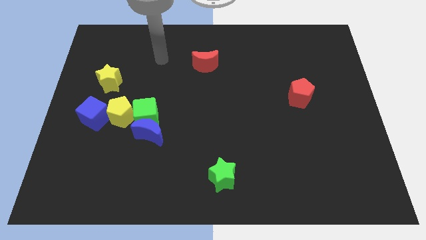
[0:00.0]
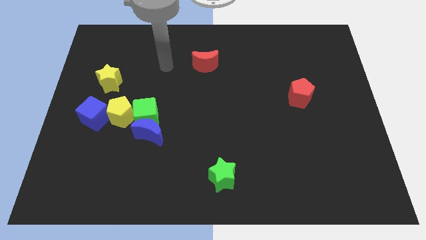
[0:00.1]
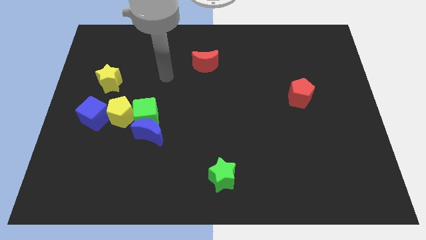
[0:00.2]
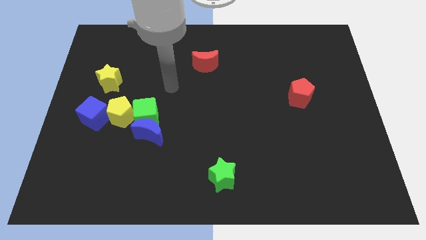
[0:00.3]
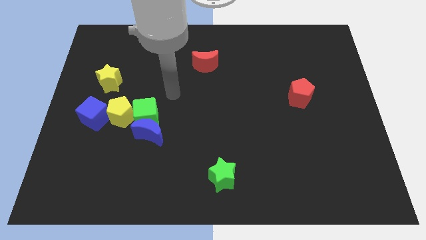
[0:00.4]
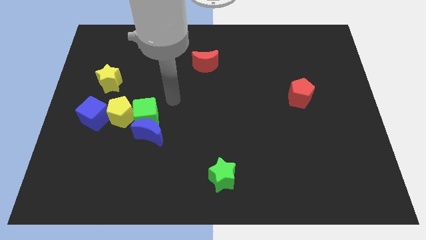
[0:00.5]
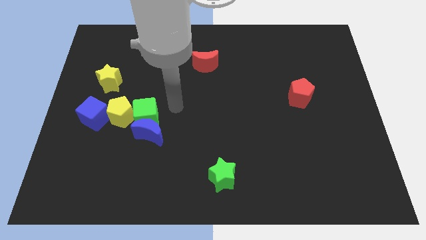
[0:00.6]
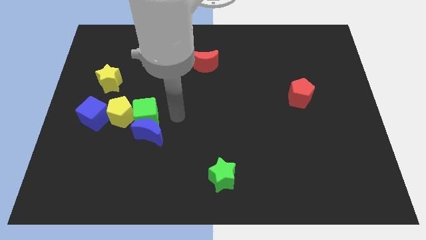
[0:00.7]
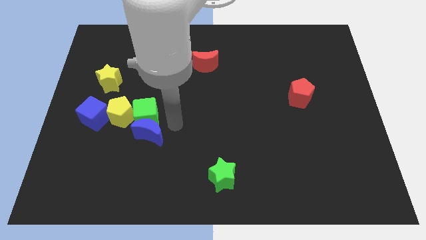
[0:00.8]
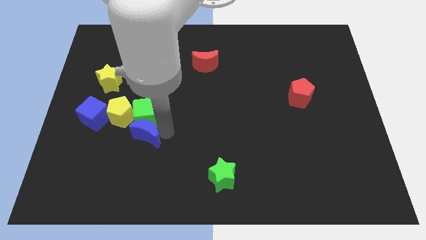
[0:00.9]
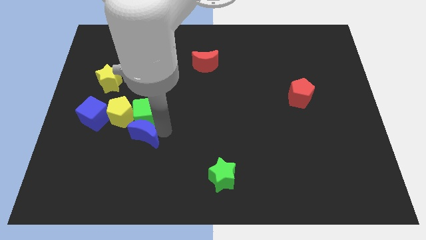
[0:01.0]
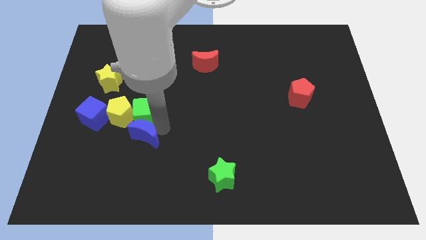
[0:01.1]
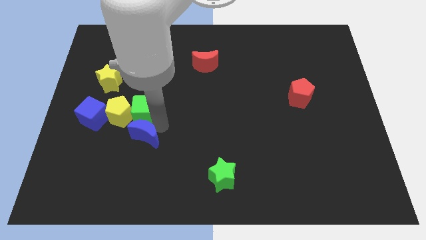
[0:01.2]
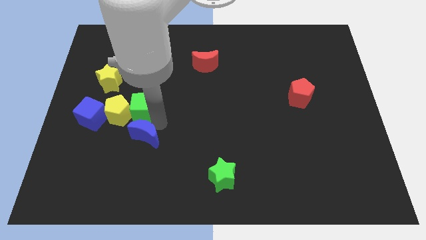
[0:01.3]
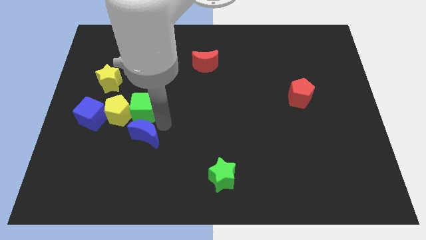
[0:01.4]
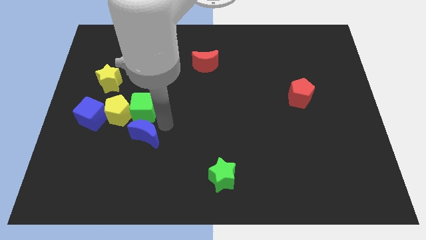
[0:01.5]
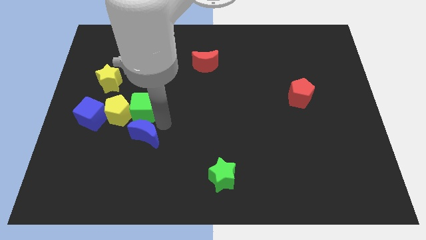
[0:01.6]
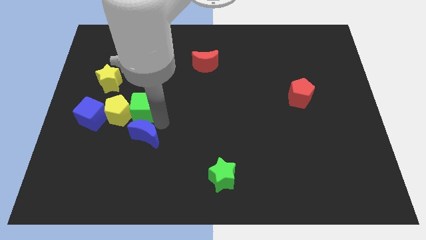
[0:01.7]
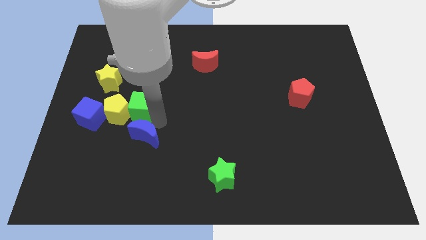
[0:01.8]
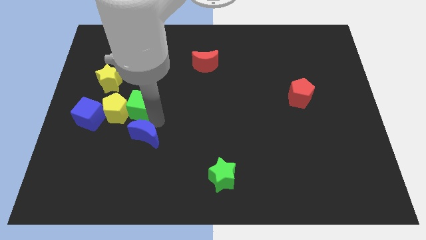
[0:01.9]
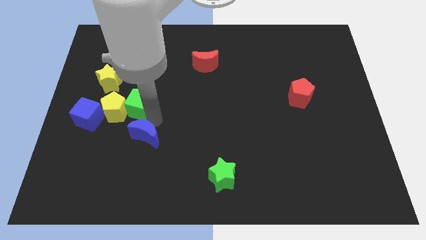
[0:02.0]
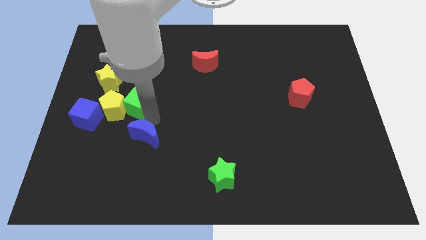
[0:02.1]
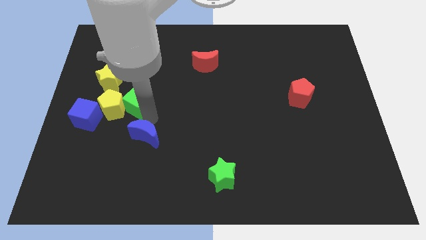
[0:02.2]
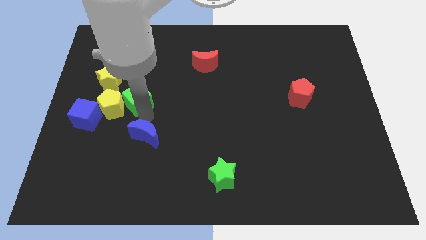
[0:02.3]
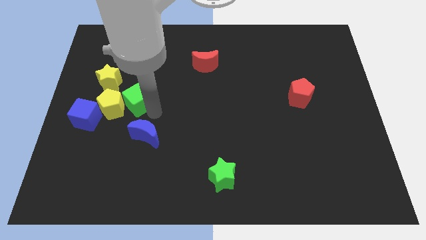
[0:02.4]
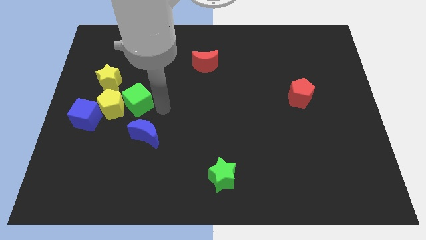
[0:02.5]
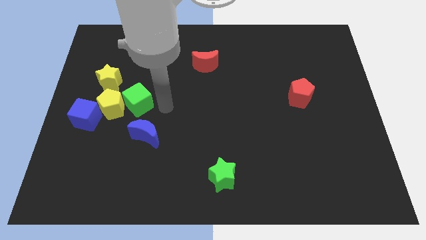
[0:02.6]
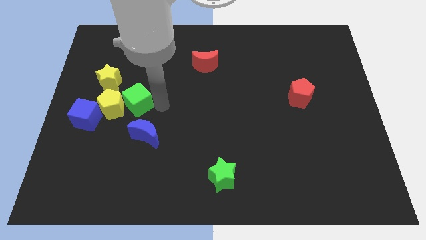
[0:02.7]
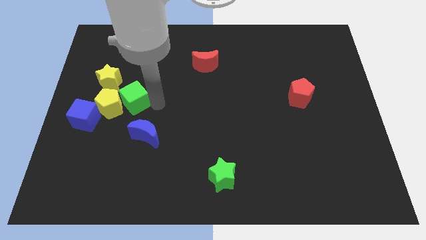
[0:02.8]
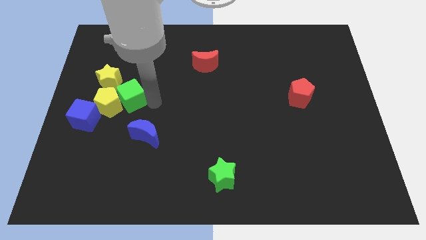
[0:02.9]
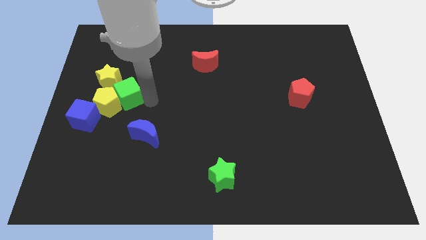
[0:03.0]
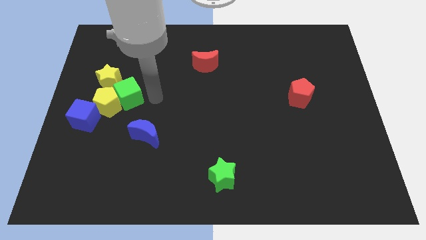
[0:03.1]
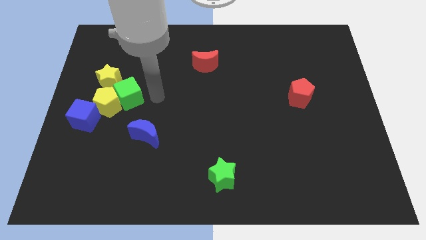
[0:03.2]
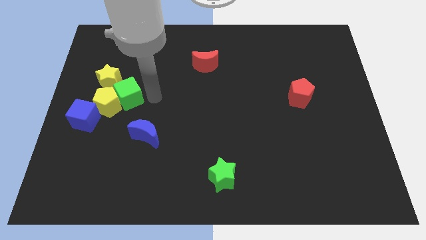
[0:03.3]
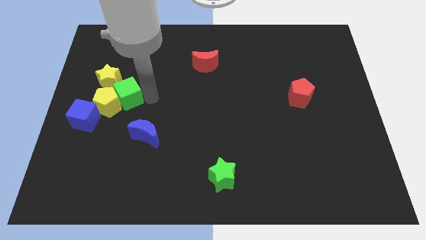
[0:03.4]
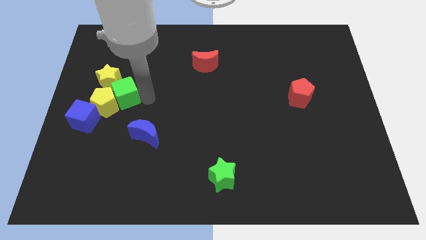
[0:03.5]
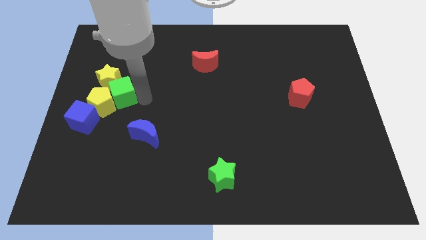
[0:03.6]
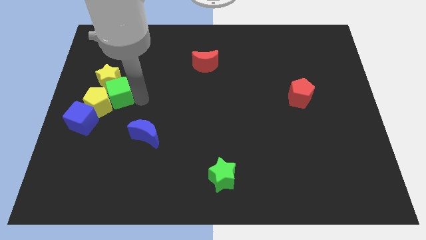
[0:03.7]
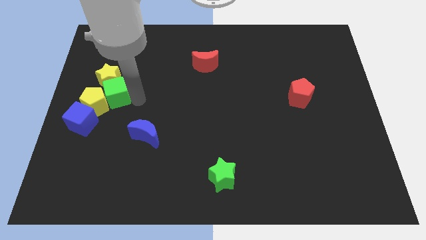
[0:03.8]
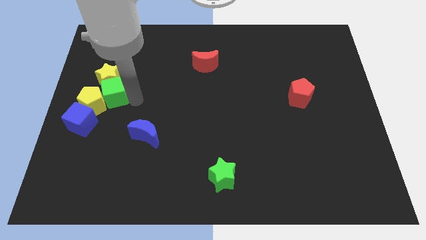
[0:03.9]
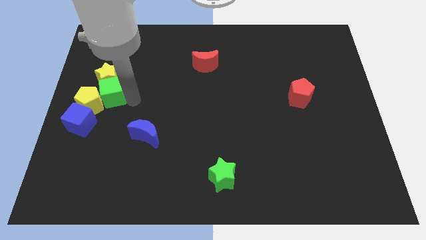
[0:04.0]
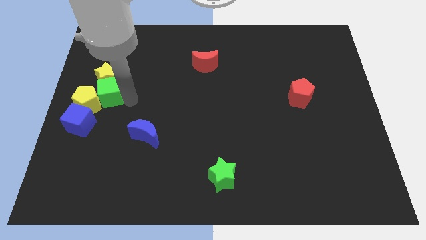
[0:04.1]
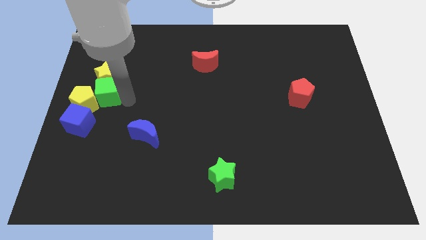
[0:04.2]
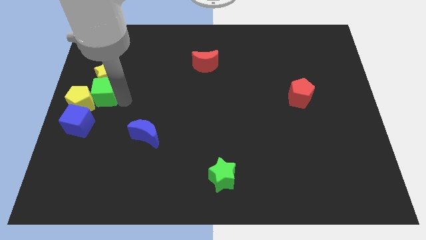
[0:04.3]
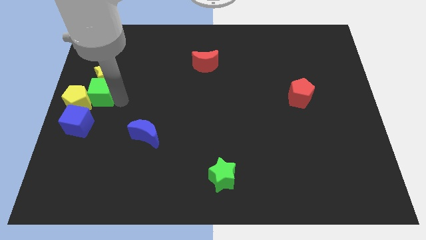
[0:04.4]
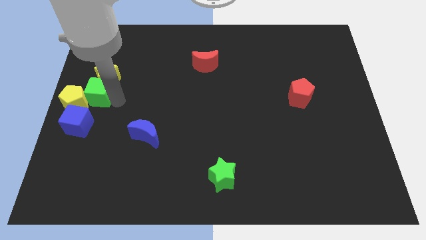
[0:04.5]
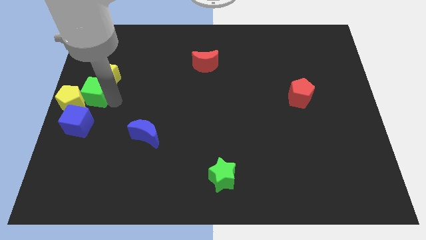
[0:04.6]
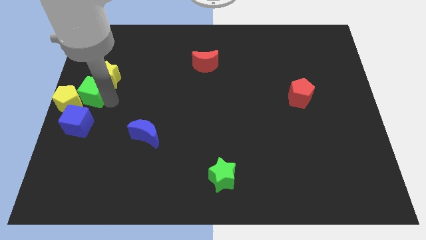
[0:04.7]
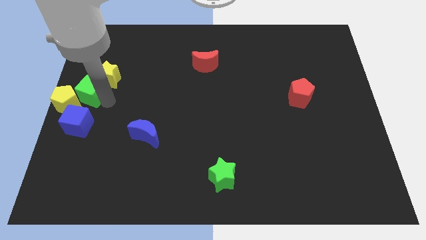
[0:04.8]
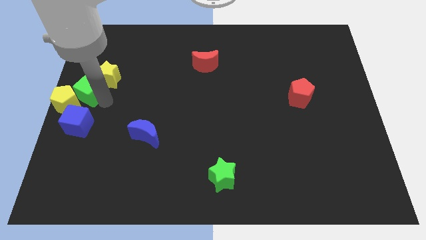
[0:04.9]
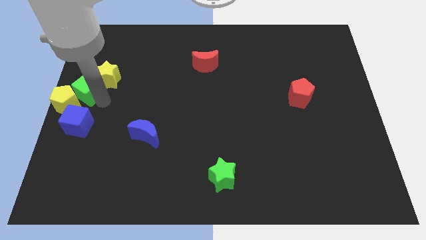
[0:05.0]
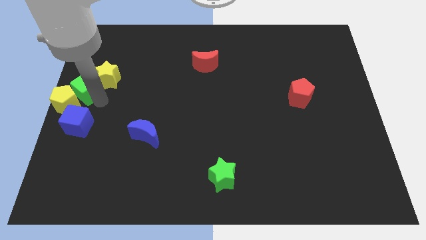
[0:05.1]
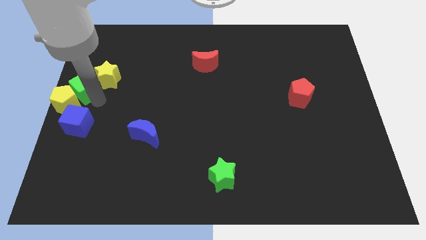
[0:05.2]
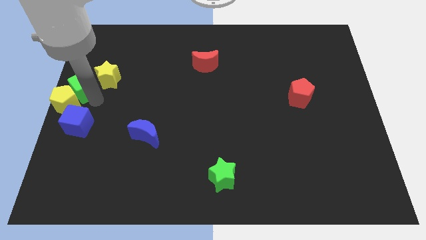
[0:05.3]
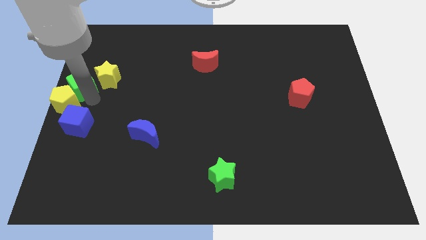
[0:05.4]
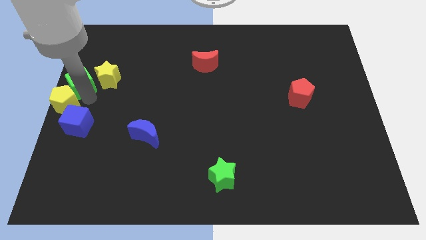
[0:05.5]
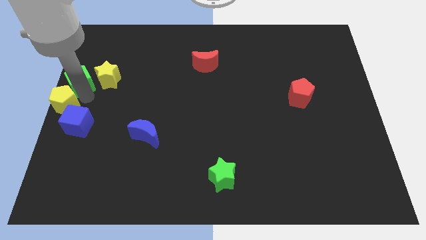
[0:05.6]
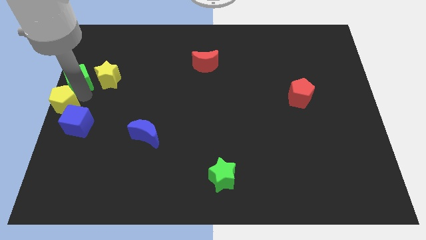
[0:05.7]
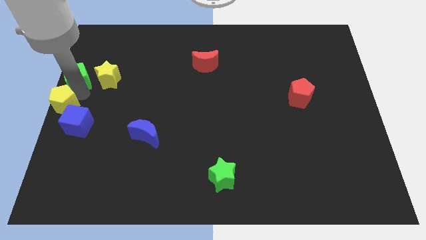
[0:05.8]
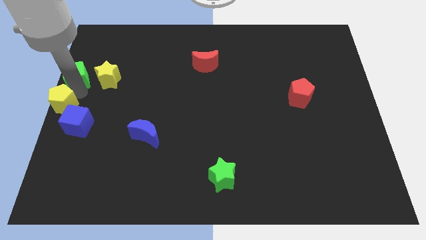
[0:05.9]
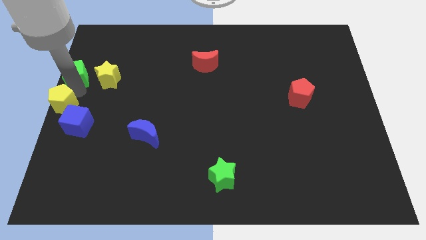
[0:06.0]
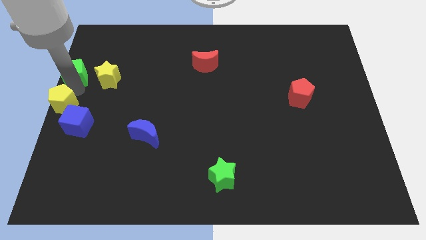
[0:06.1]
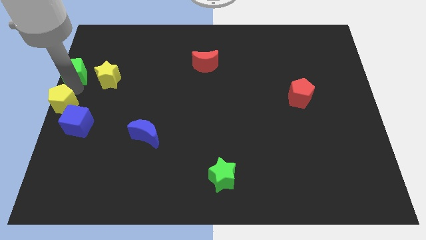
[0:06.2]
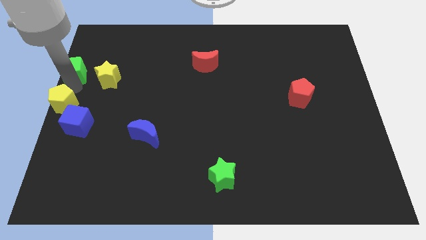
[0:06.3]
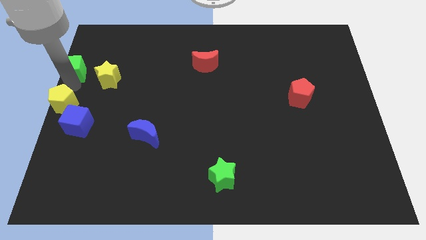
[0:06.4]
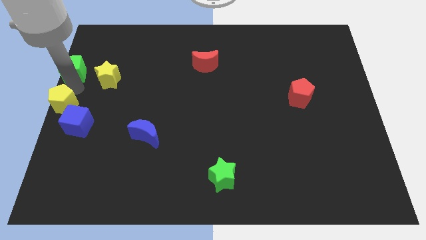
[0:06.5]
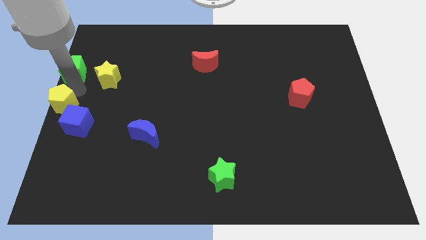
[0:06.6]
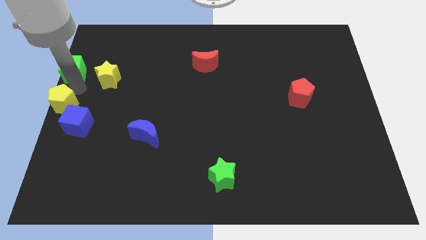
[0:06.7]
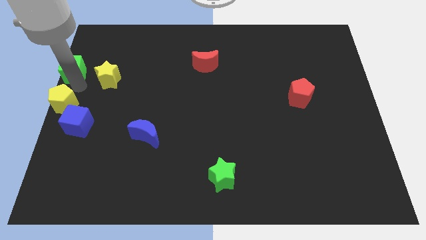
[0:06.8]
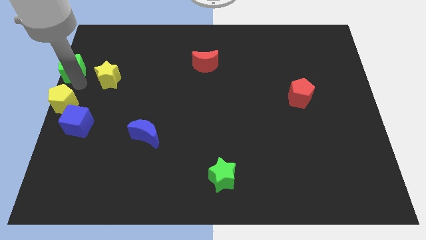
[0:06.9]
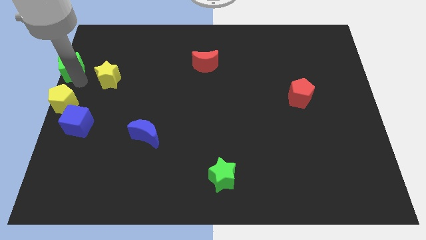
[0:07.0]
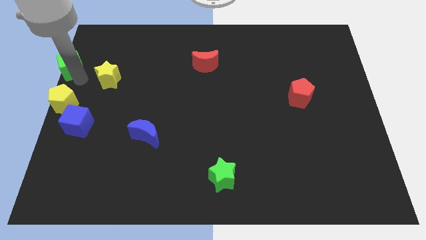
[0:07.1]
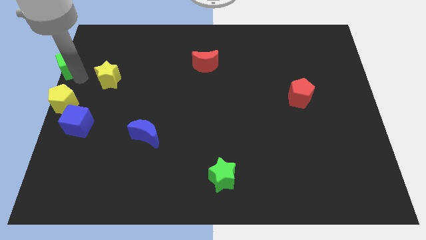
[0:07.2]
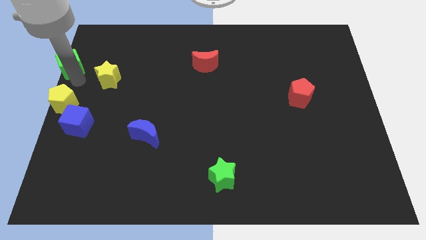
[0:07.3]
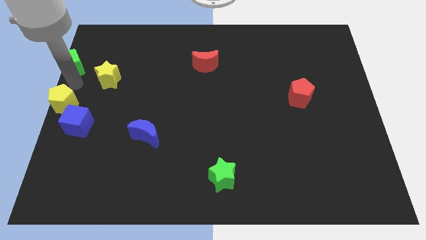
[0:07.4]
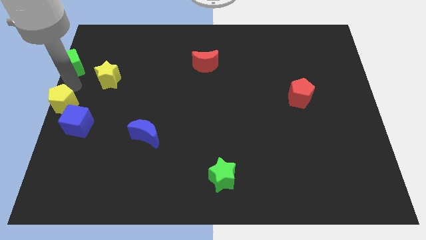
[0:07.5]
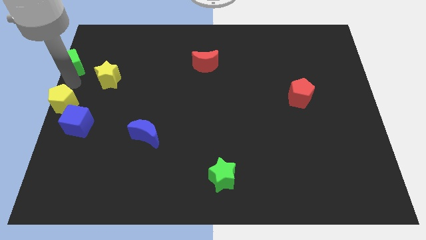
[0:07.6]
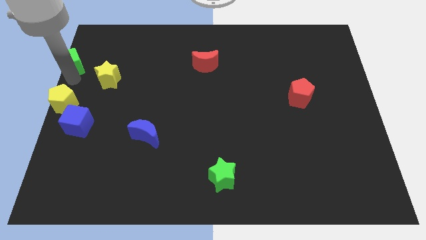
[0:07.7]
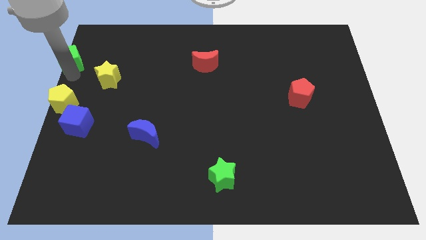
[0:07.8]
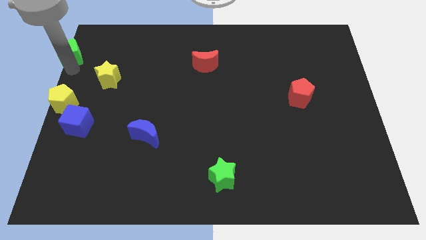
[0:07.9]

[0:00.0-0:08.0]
put the green cube to the top left of the board
